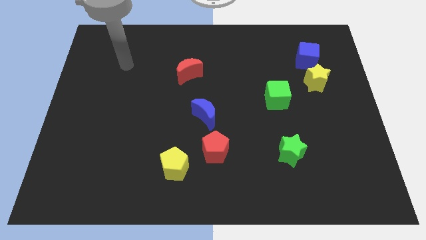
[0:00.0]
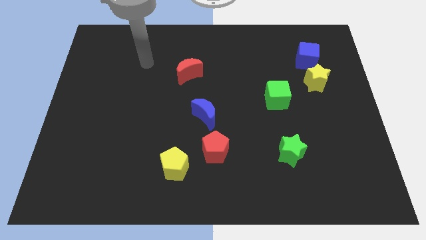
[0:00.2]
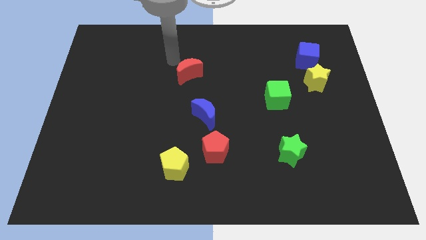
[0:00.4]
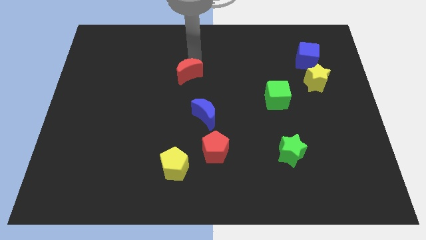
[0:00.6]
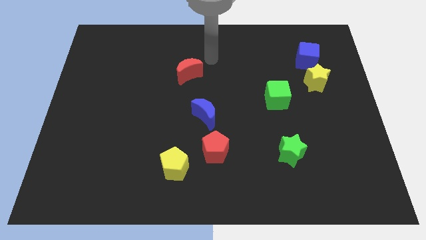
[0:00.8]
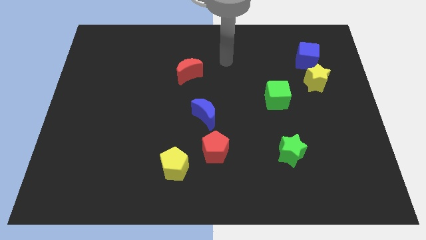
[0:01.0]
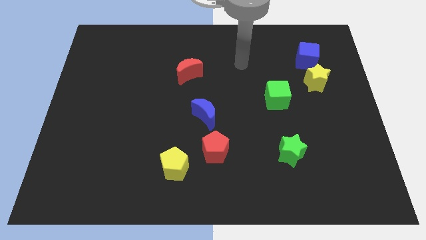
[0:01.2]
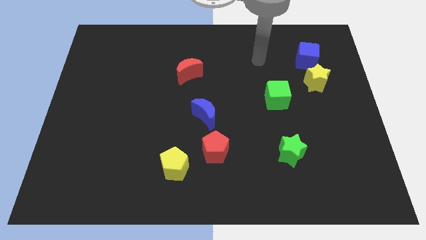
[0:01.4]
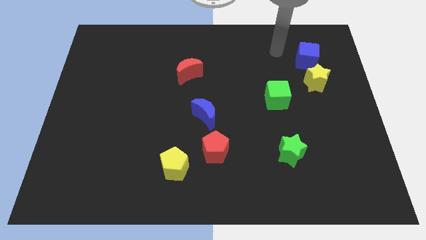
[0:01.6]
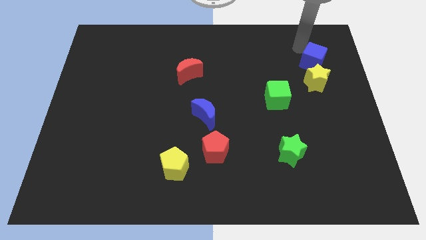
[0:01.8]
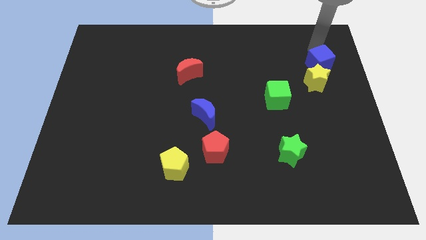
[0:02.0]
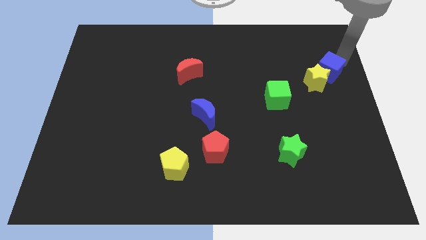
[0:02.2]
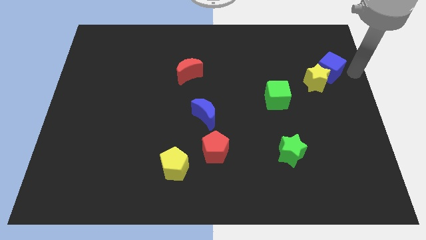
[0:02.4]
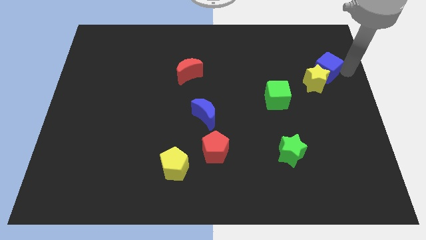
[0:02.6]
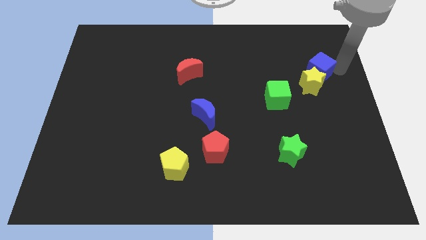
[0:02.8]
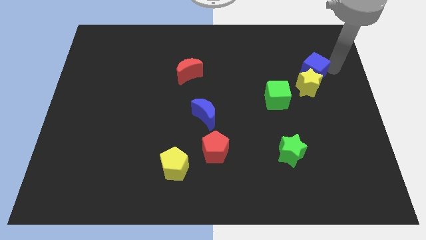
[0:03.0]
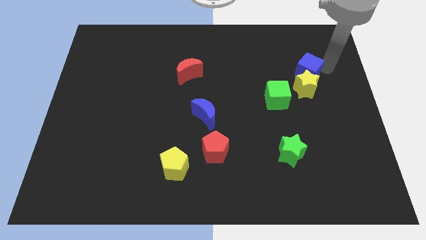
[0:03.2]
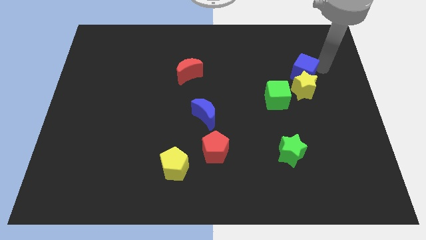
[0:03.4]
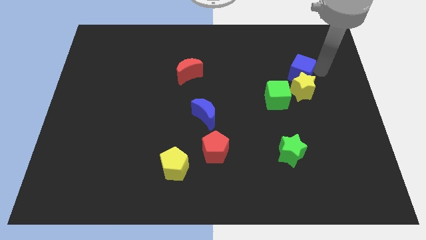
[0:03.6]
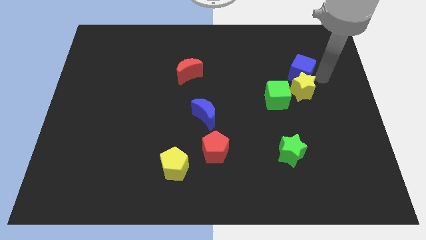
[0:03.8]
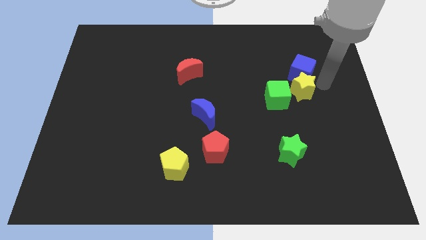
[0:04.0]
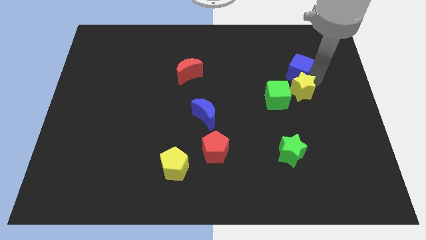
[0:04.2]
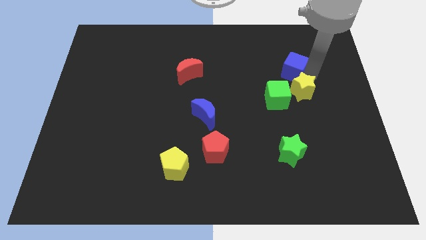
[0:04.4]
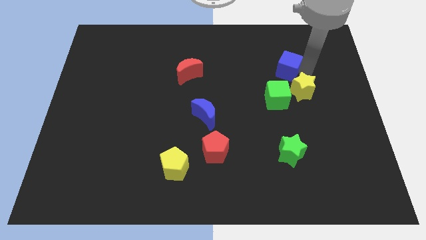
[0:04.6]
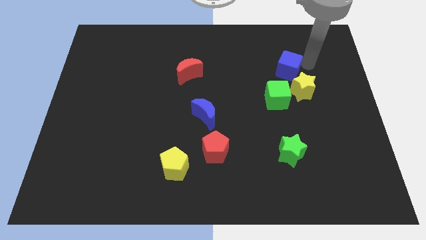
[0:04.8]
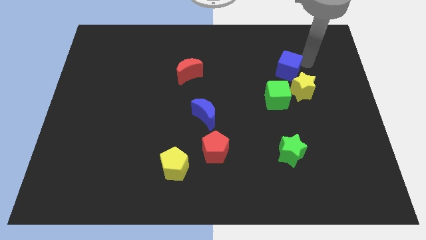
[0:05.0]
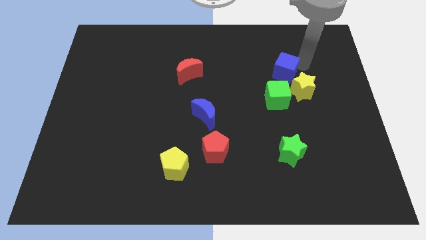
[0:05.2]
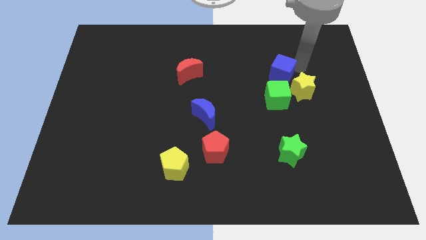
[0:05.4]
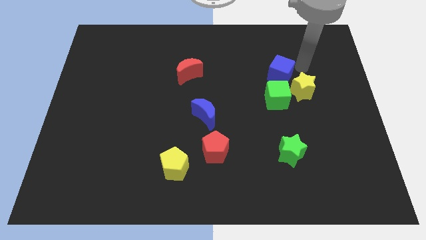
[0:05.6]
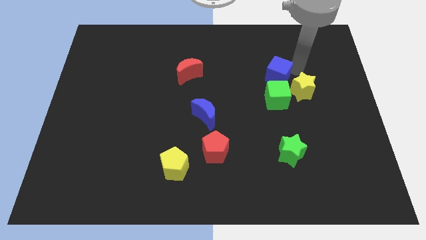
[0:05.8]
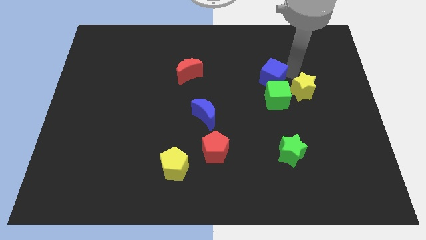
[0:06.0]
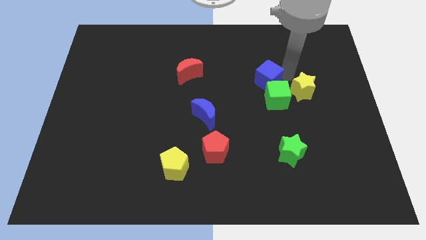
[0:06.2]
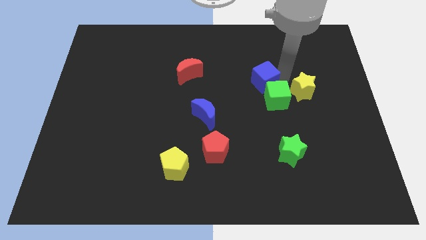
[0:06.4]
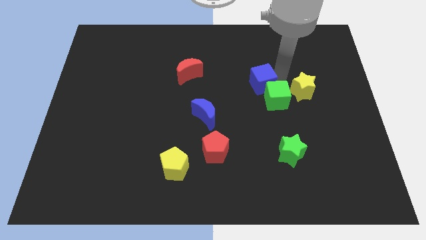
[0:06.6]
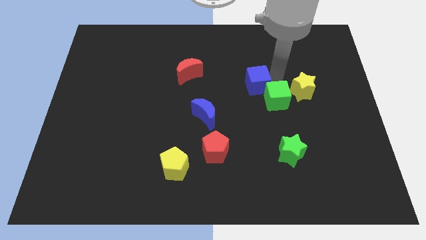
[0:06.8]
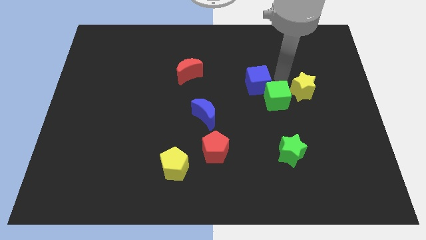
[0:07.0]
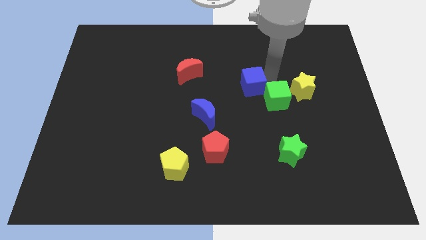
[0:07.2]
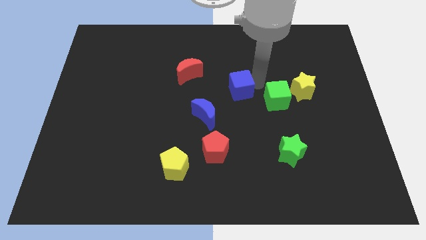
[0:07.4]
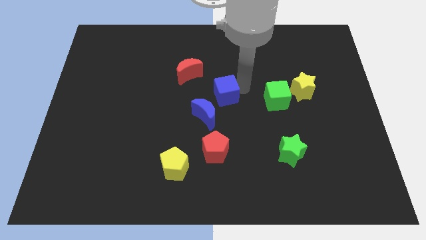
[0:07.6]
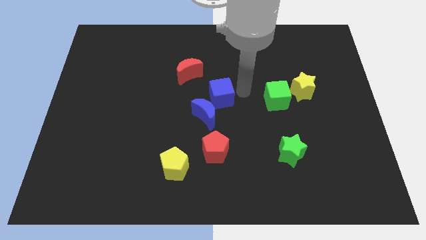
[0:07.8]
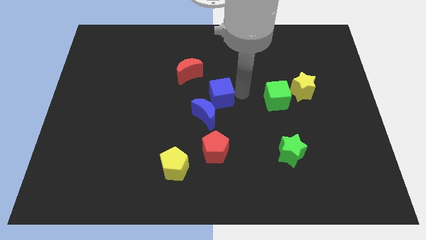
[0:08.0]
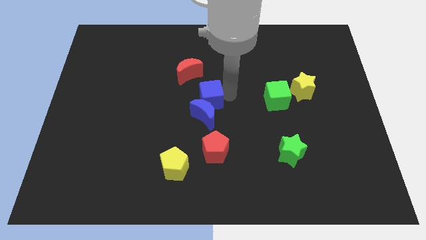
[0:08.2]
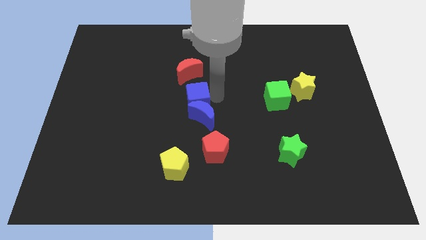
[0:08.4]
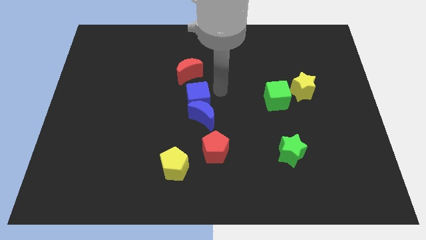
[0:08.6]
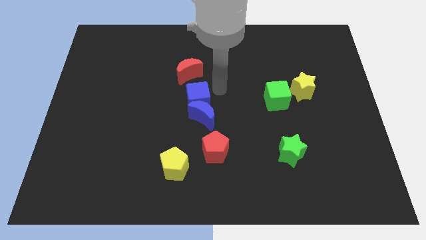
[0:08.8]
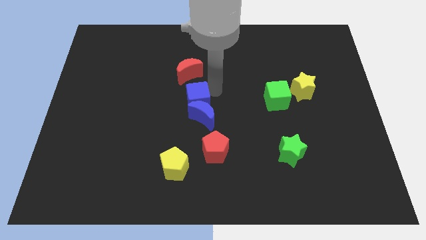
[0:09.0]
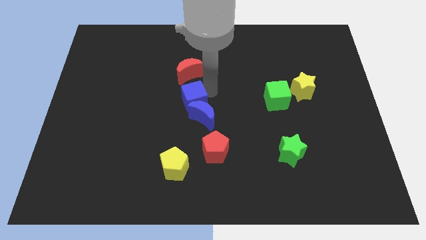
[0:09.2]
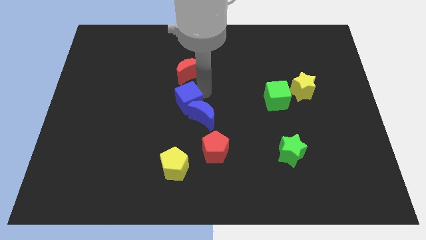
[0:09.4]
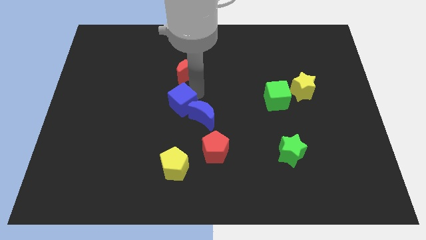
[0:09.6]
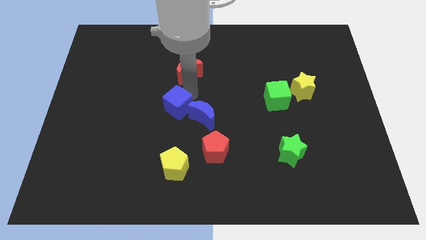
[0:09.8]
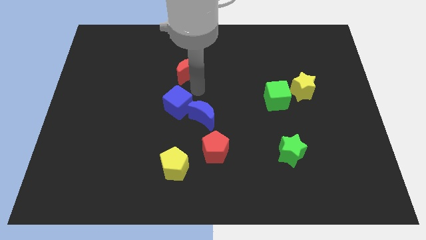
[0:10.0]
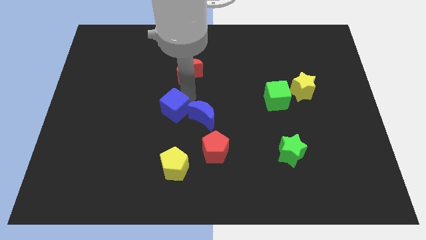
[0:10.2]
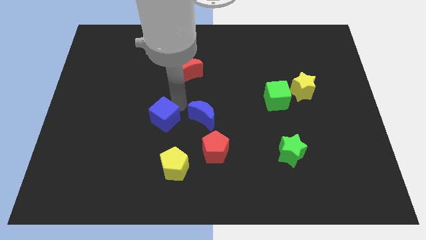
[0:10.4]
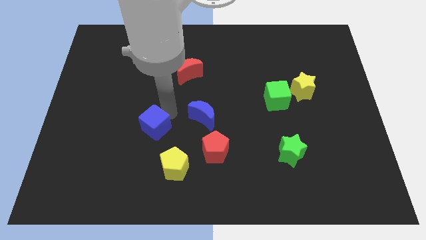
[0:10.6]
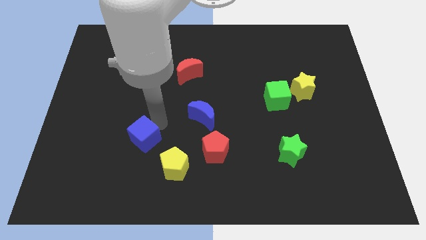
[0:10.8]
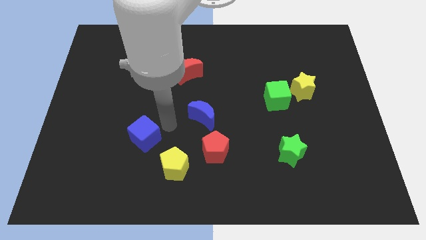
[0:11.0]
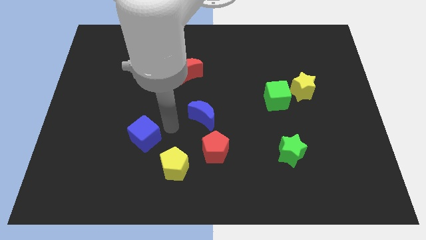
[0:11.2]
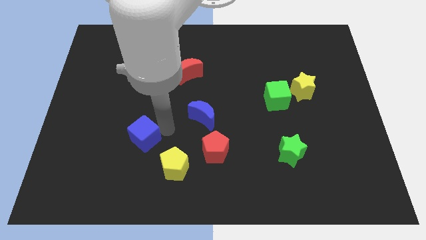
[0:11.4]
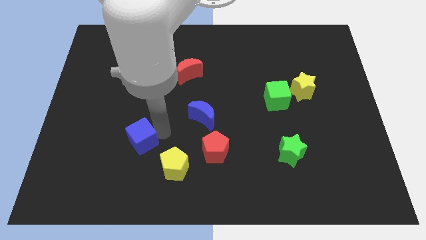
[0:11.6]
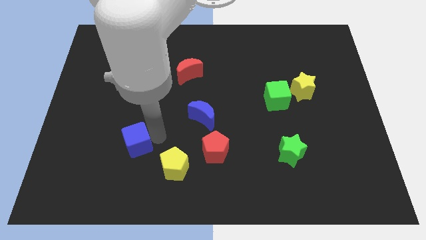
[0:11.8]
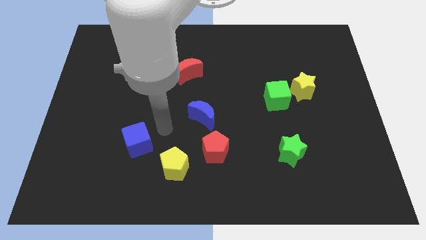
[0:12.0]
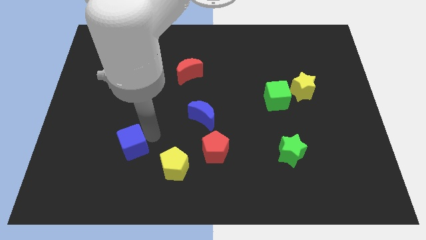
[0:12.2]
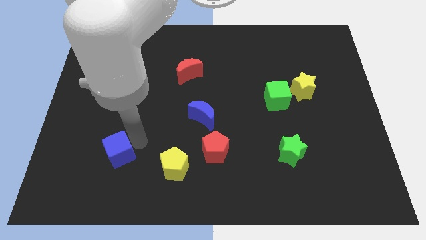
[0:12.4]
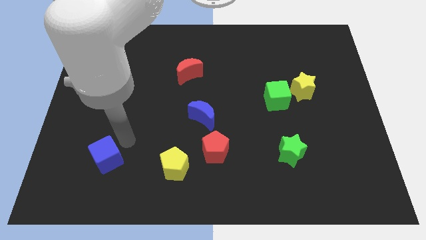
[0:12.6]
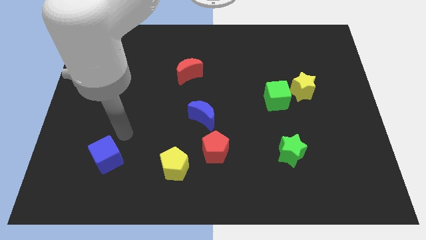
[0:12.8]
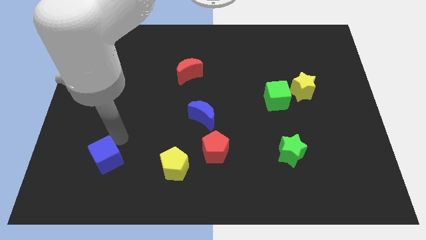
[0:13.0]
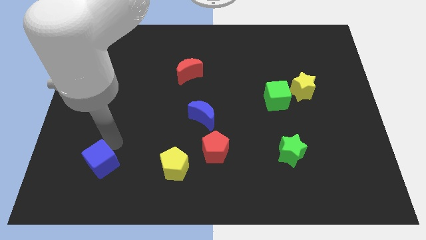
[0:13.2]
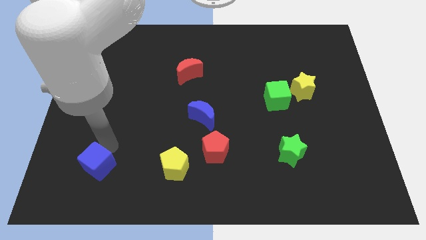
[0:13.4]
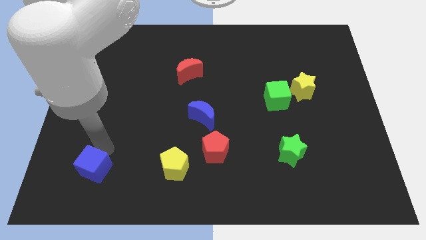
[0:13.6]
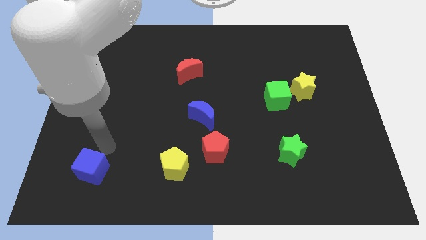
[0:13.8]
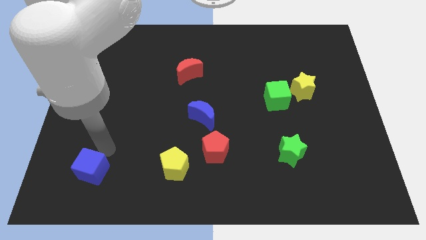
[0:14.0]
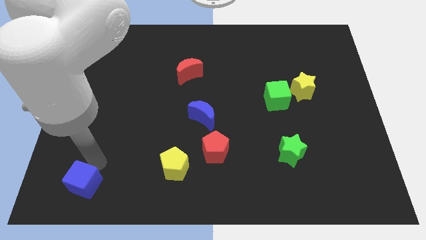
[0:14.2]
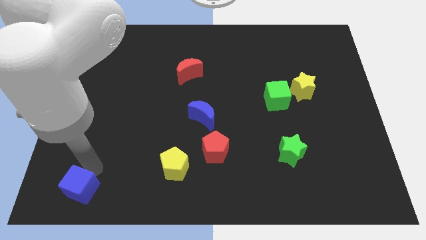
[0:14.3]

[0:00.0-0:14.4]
move the blue cube to the bottom left of the board
